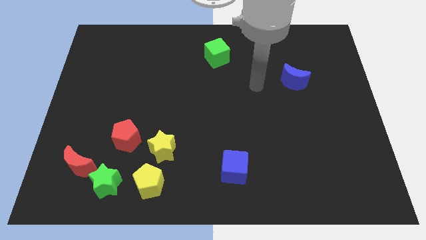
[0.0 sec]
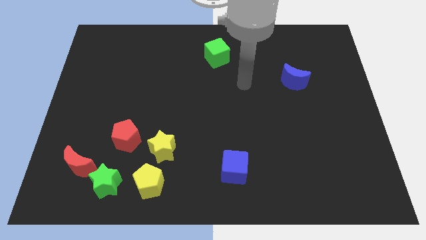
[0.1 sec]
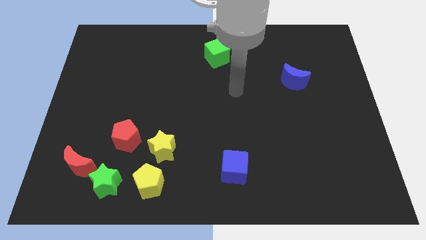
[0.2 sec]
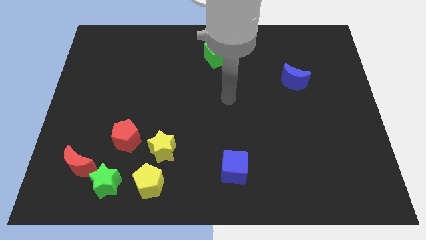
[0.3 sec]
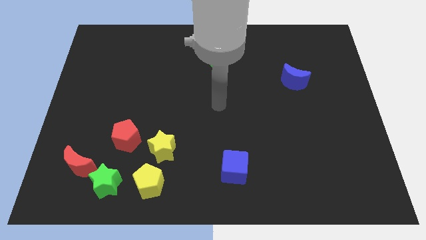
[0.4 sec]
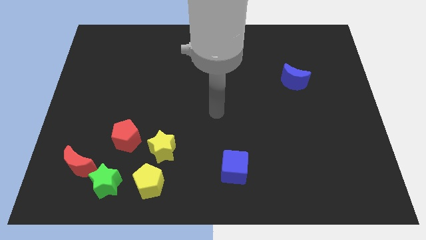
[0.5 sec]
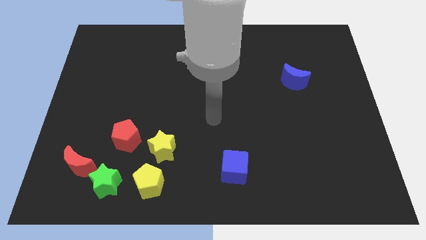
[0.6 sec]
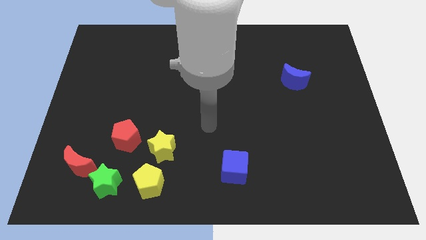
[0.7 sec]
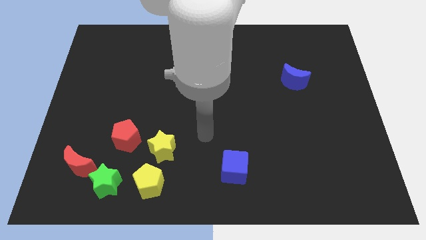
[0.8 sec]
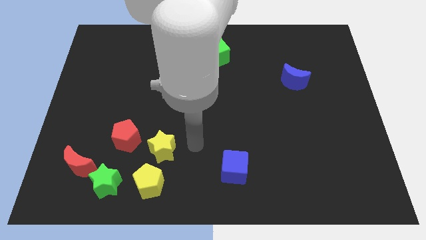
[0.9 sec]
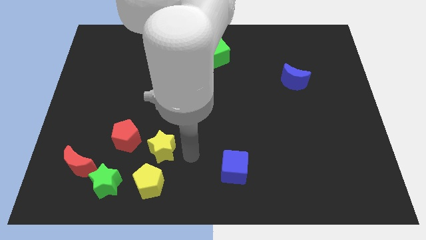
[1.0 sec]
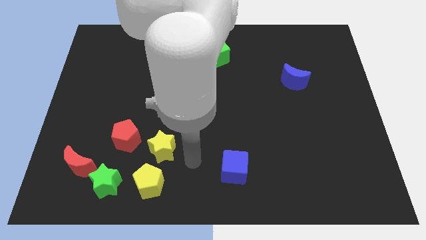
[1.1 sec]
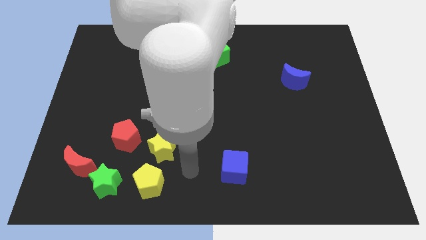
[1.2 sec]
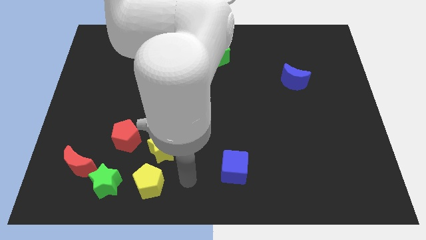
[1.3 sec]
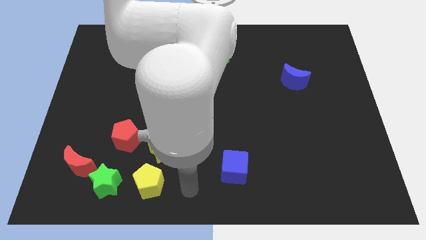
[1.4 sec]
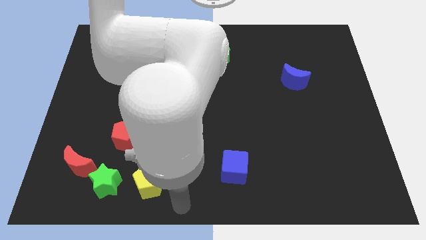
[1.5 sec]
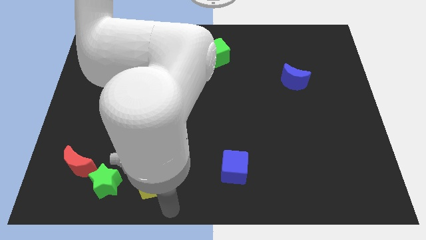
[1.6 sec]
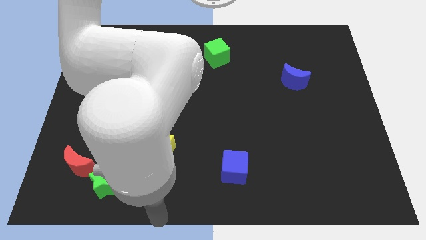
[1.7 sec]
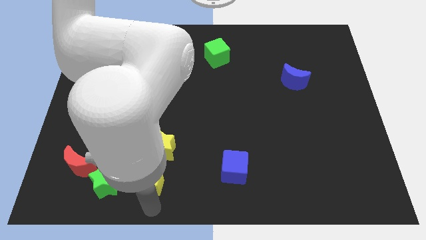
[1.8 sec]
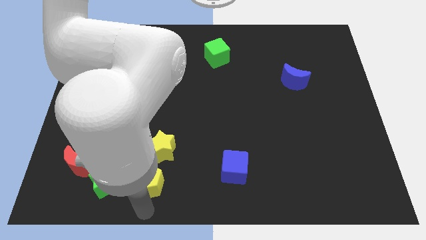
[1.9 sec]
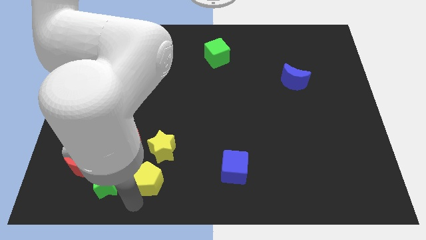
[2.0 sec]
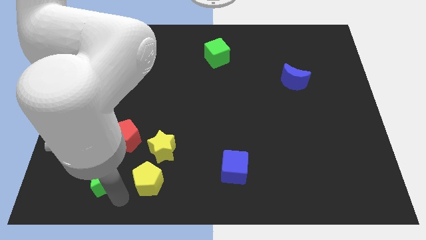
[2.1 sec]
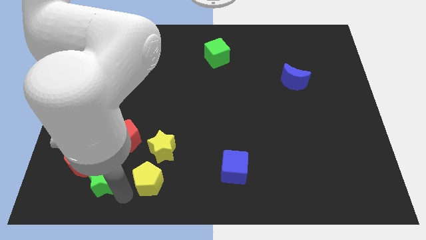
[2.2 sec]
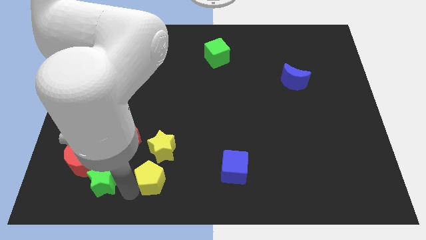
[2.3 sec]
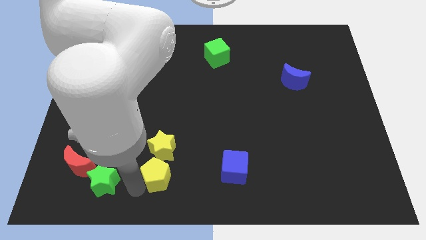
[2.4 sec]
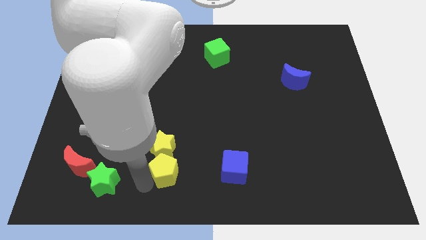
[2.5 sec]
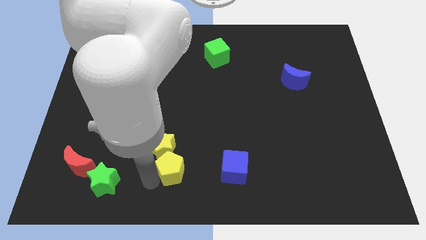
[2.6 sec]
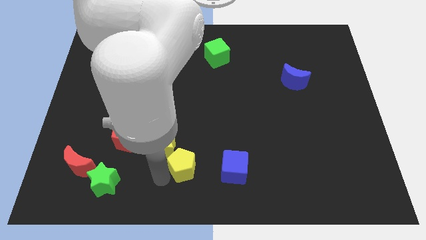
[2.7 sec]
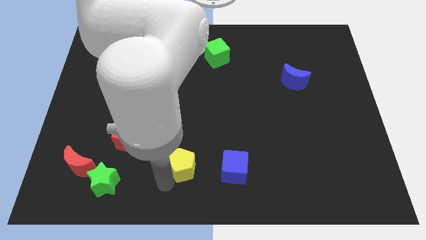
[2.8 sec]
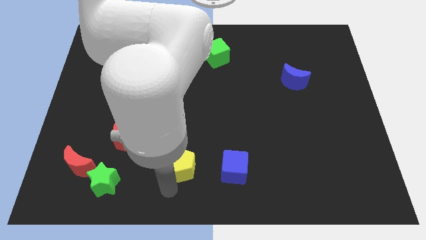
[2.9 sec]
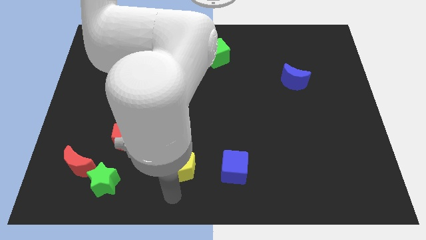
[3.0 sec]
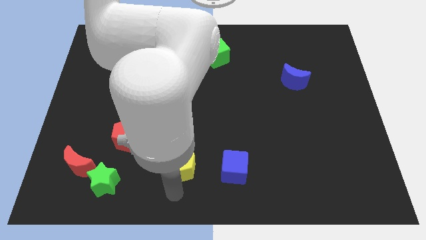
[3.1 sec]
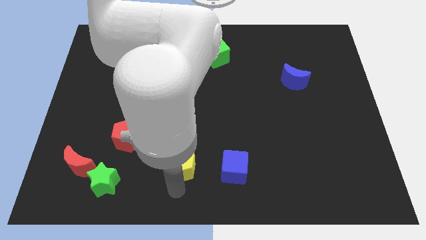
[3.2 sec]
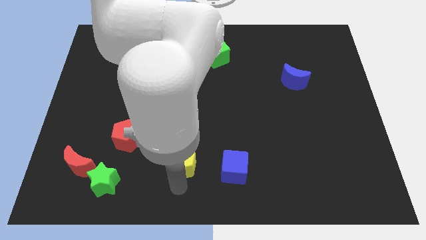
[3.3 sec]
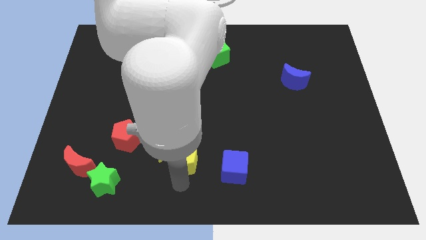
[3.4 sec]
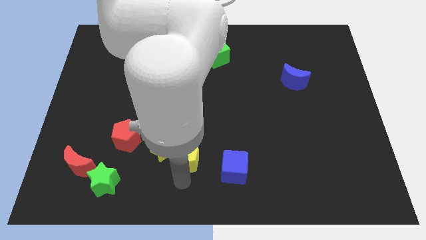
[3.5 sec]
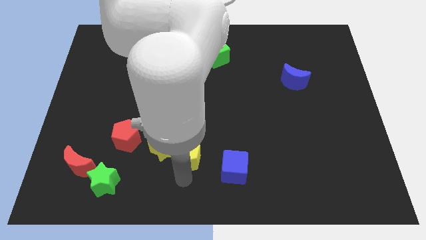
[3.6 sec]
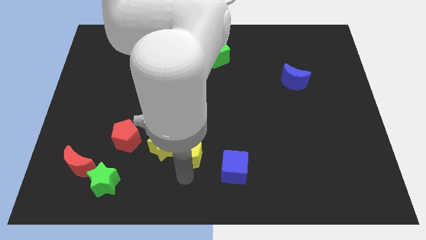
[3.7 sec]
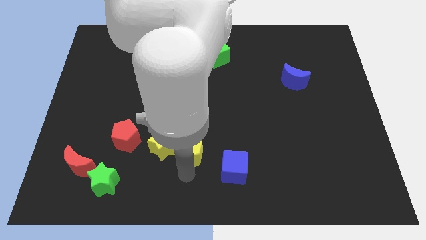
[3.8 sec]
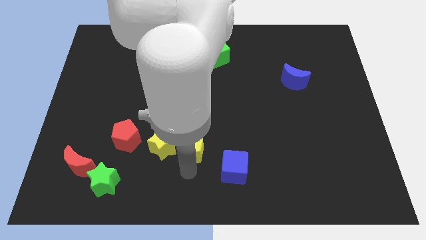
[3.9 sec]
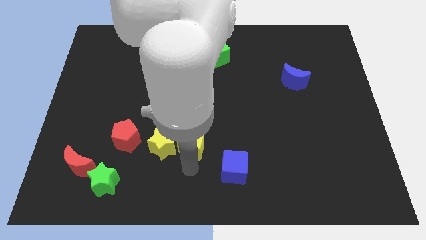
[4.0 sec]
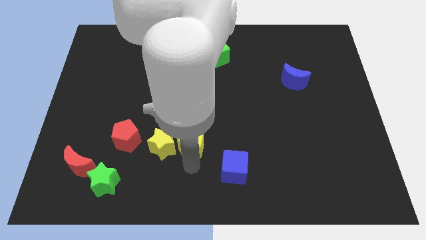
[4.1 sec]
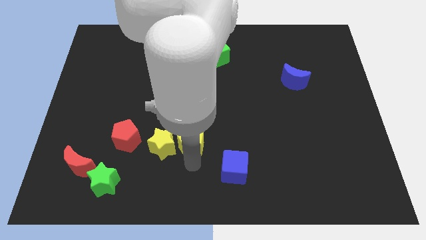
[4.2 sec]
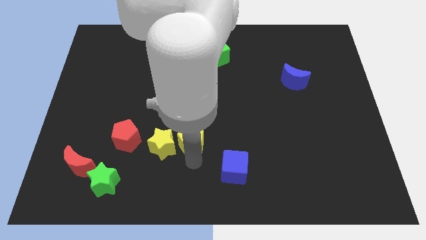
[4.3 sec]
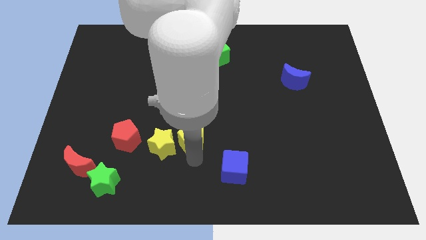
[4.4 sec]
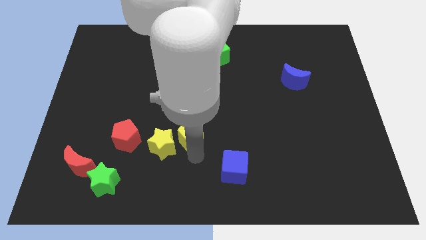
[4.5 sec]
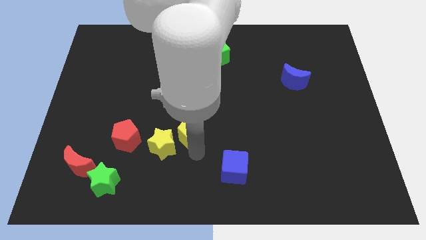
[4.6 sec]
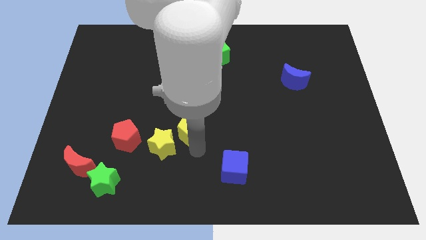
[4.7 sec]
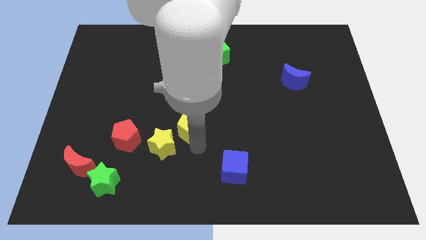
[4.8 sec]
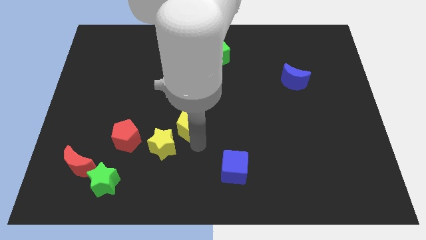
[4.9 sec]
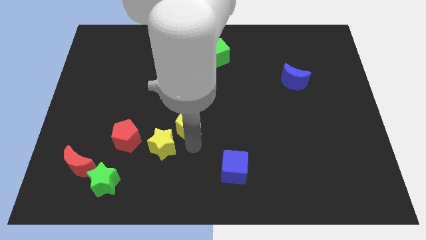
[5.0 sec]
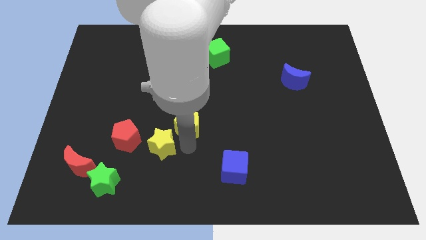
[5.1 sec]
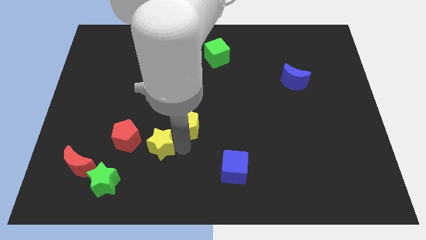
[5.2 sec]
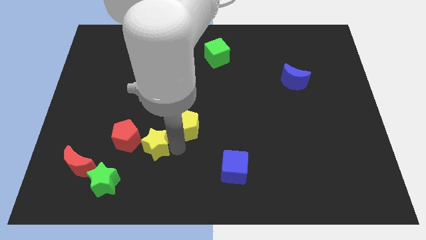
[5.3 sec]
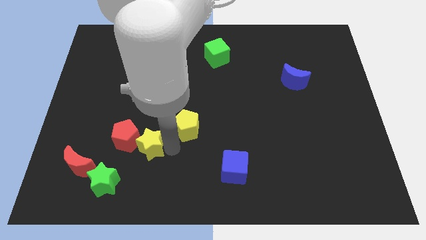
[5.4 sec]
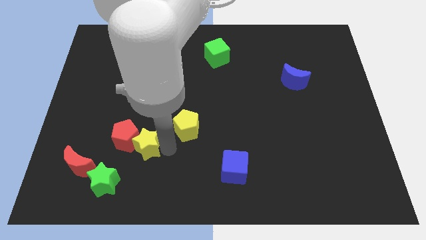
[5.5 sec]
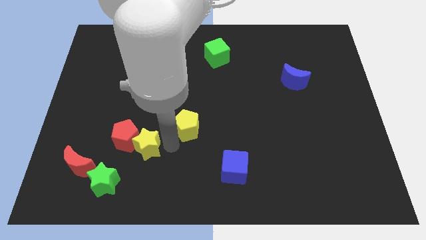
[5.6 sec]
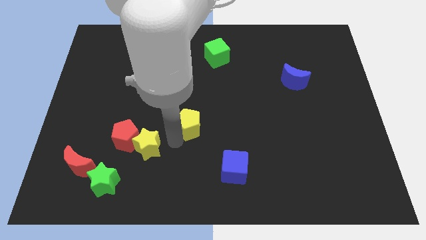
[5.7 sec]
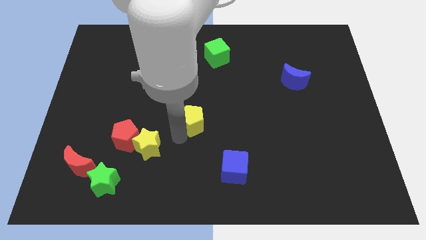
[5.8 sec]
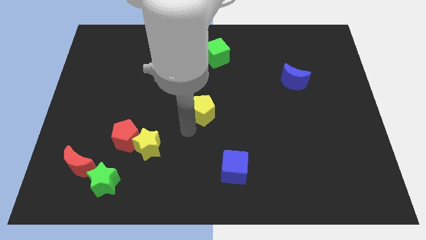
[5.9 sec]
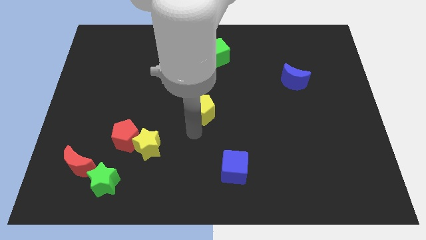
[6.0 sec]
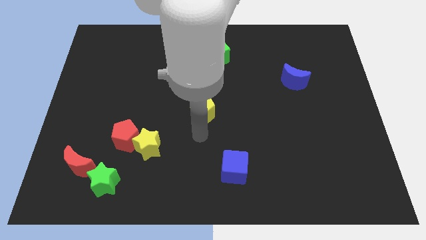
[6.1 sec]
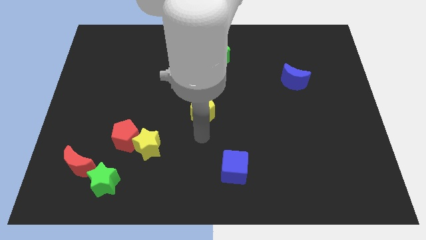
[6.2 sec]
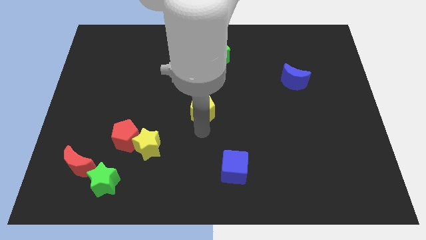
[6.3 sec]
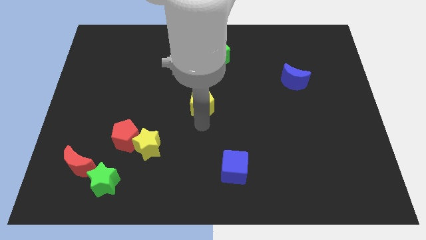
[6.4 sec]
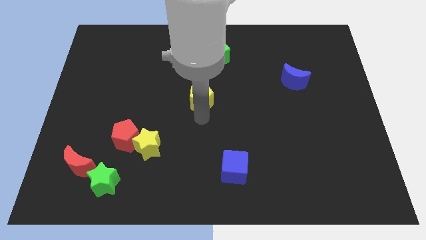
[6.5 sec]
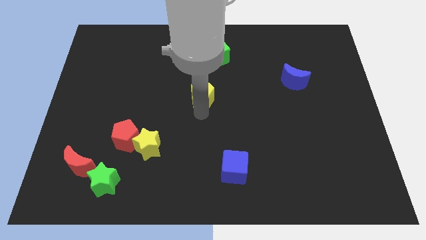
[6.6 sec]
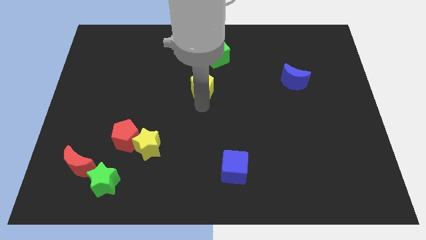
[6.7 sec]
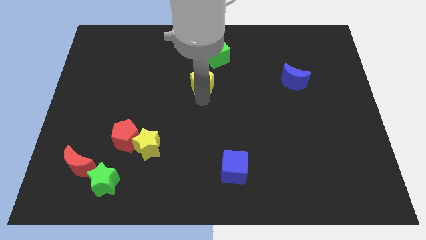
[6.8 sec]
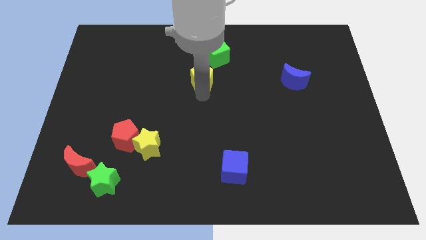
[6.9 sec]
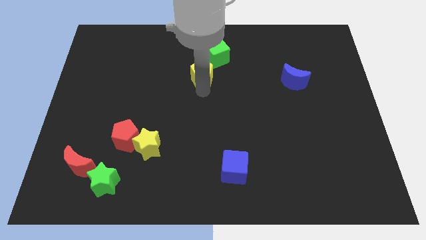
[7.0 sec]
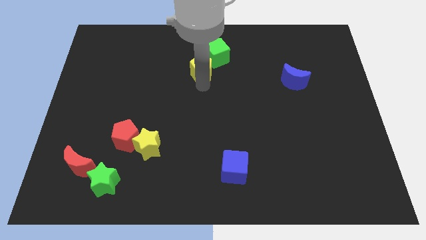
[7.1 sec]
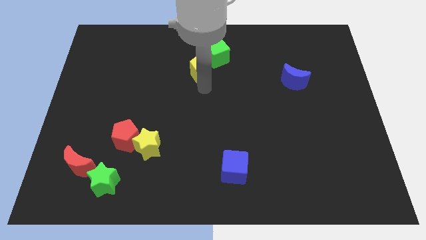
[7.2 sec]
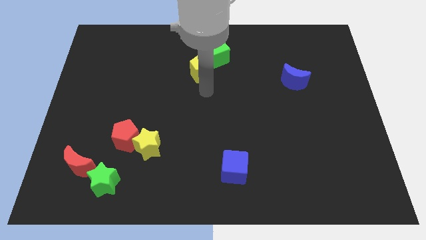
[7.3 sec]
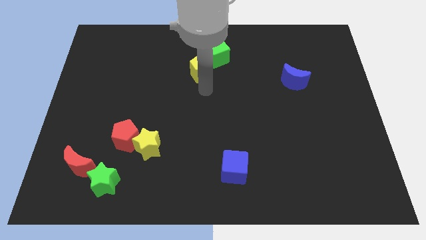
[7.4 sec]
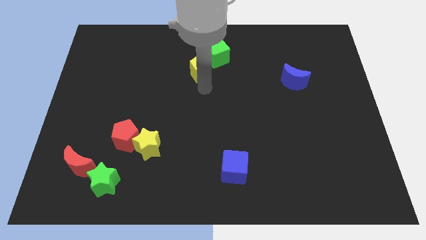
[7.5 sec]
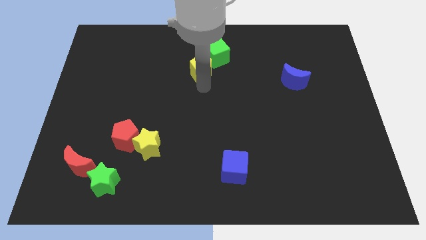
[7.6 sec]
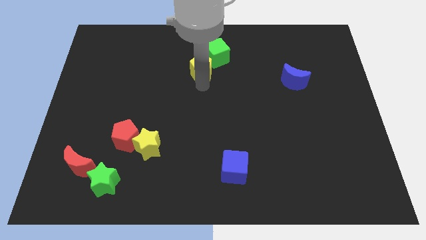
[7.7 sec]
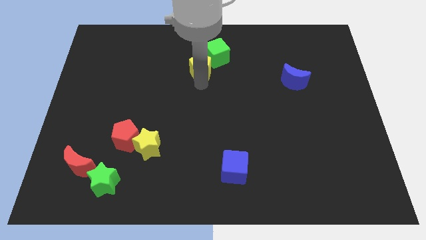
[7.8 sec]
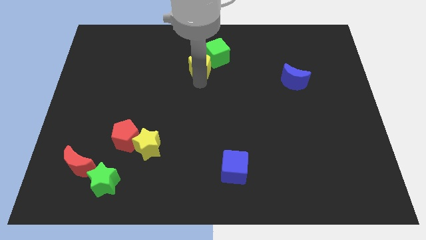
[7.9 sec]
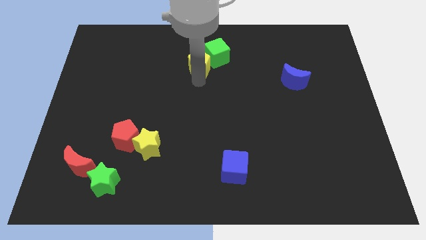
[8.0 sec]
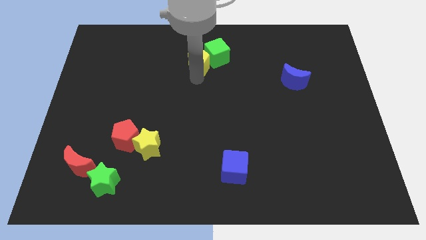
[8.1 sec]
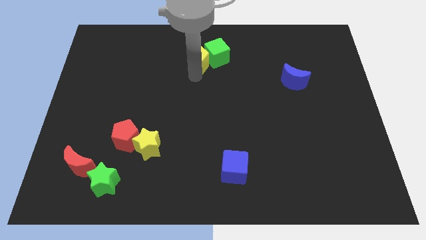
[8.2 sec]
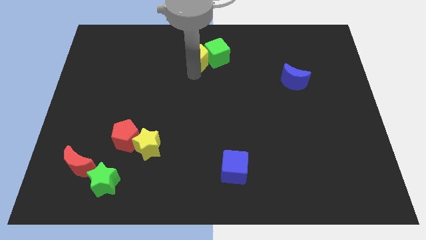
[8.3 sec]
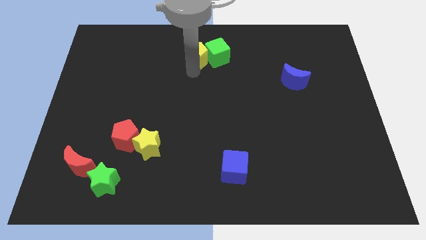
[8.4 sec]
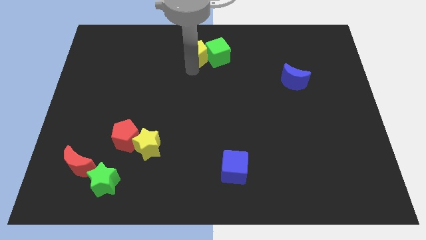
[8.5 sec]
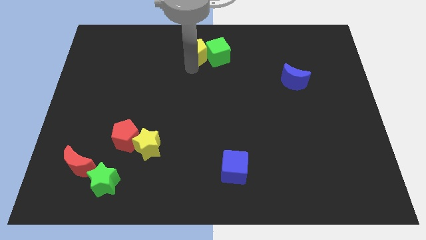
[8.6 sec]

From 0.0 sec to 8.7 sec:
put the yellow pentagon to the top side

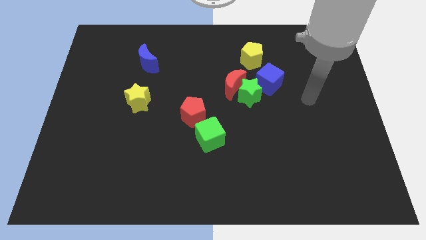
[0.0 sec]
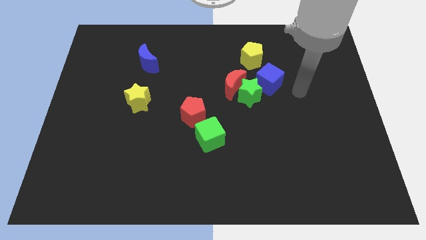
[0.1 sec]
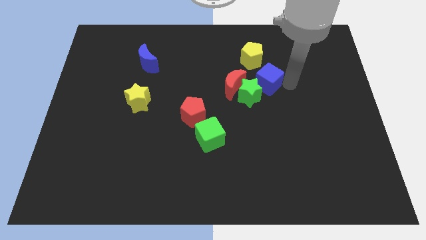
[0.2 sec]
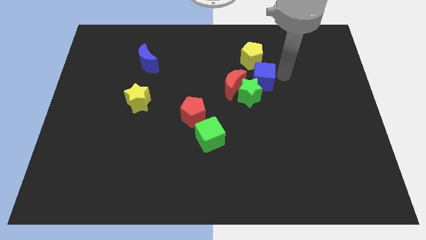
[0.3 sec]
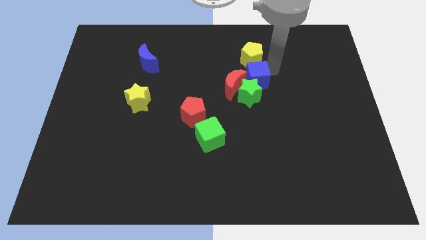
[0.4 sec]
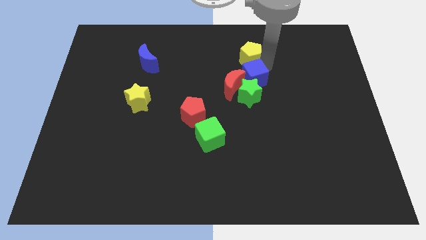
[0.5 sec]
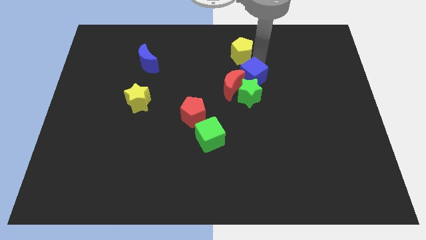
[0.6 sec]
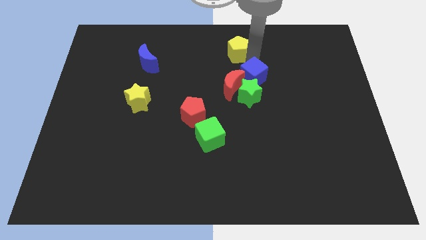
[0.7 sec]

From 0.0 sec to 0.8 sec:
move the yellow pentagon to the top
